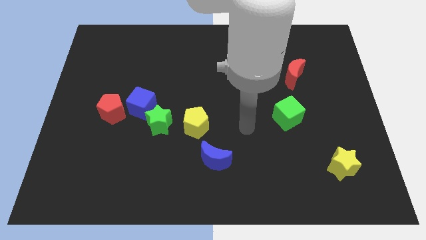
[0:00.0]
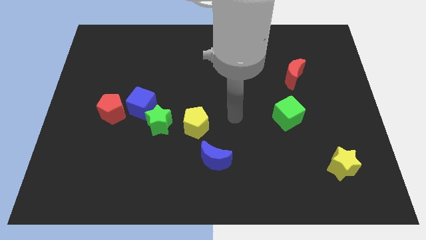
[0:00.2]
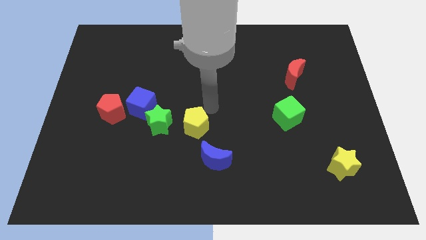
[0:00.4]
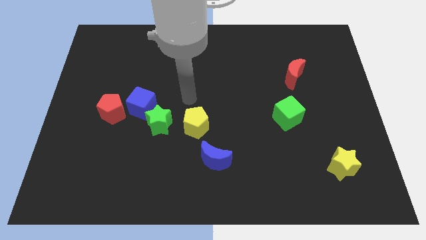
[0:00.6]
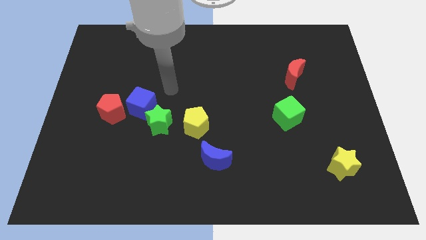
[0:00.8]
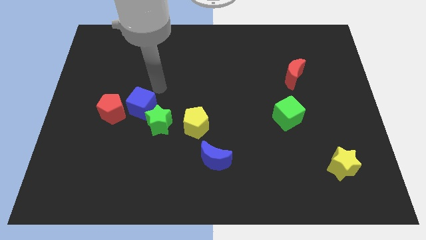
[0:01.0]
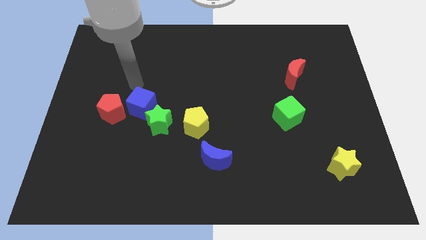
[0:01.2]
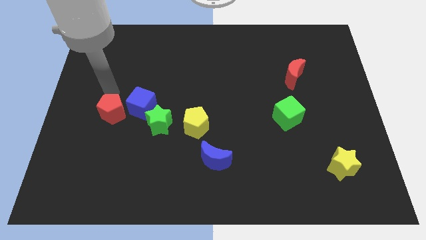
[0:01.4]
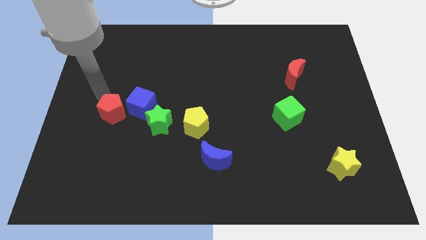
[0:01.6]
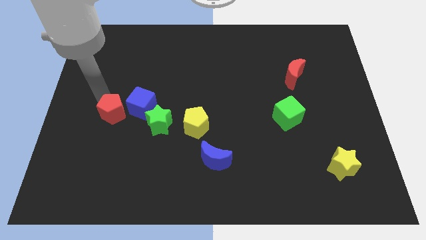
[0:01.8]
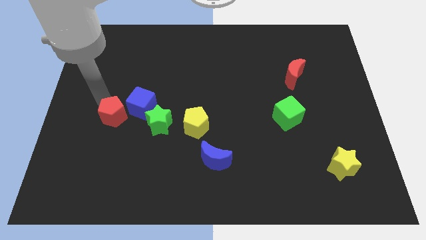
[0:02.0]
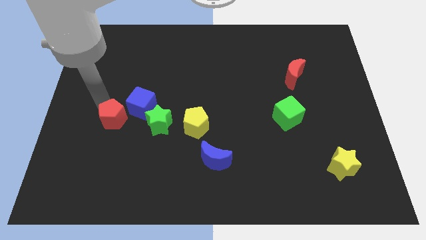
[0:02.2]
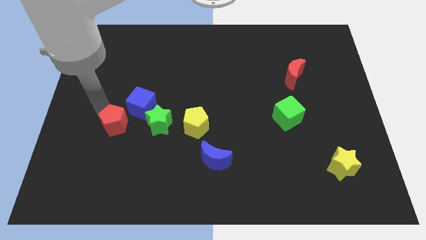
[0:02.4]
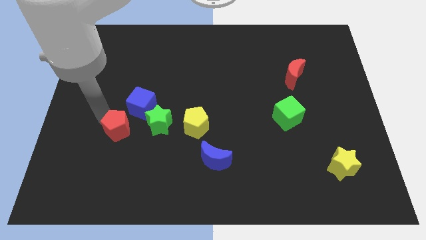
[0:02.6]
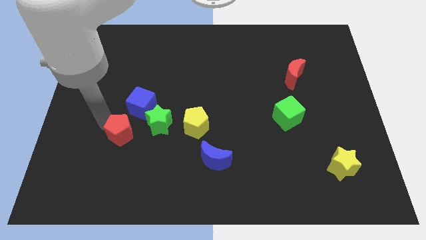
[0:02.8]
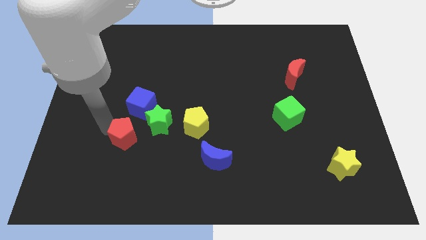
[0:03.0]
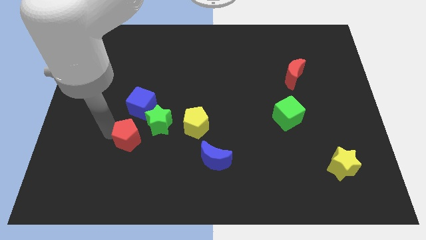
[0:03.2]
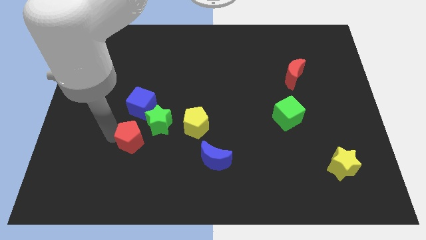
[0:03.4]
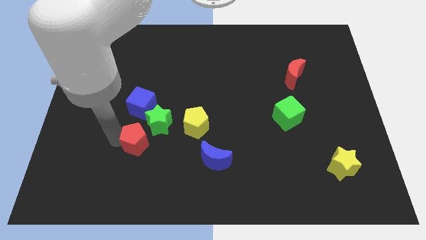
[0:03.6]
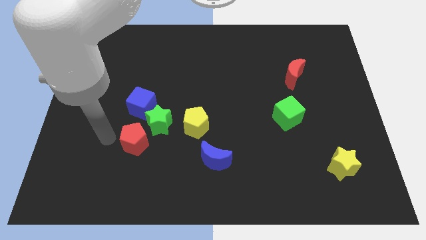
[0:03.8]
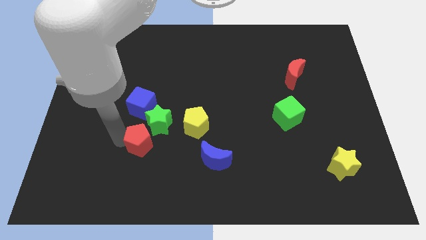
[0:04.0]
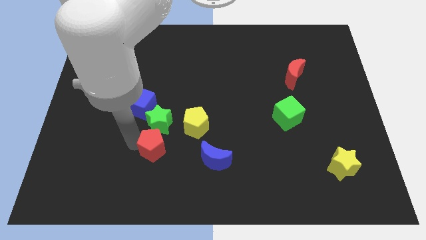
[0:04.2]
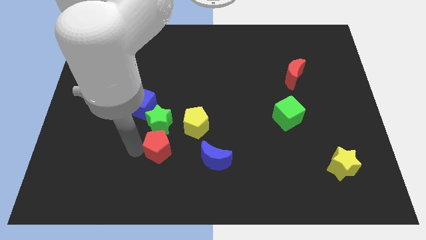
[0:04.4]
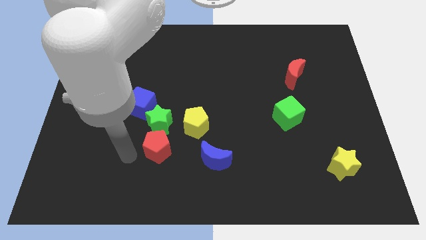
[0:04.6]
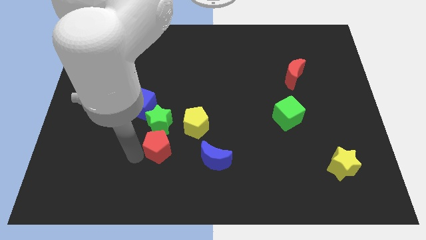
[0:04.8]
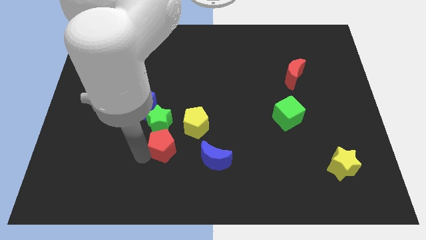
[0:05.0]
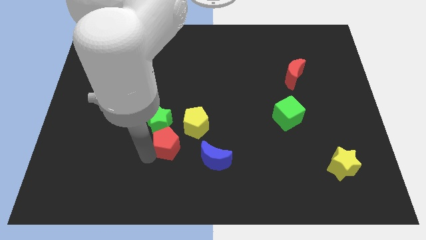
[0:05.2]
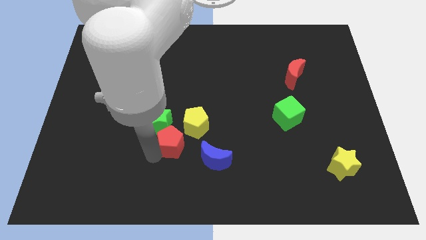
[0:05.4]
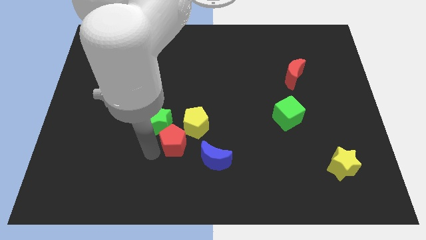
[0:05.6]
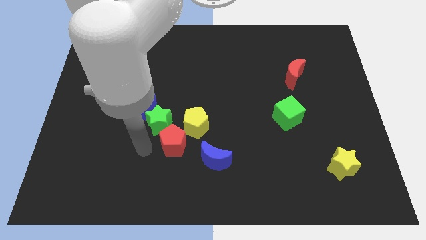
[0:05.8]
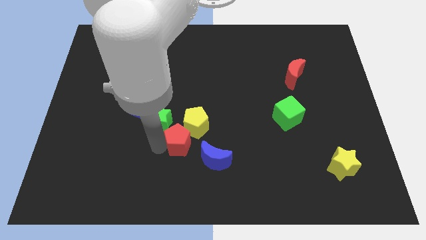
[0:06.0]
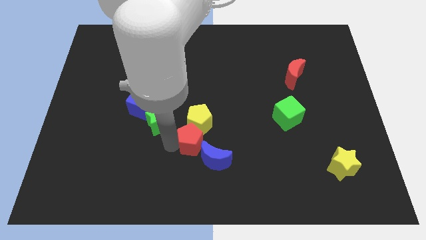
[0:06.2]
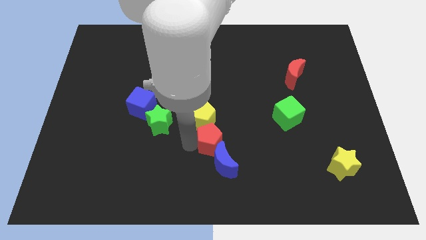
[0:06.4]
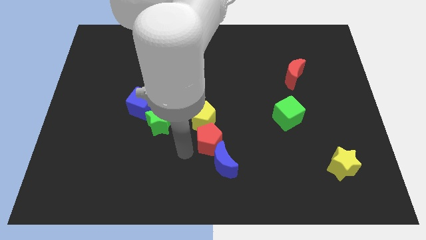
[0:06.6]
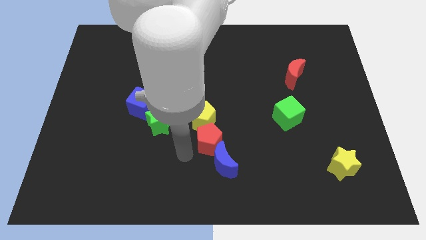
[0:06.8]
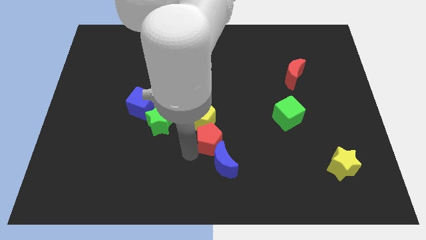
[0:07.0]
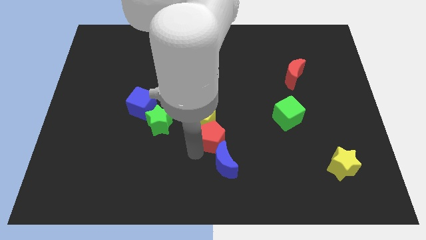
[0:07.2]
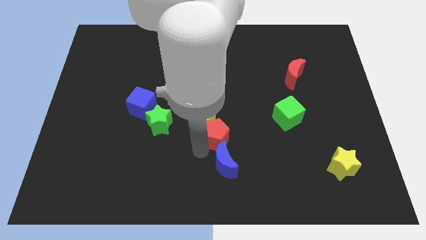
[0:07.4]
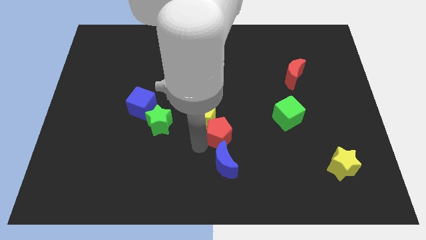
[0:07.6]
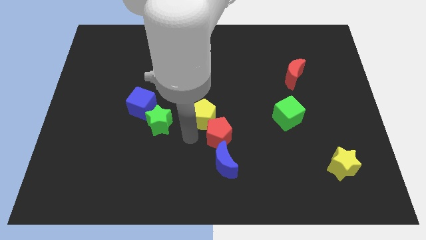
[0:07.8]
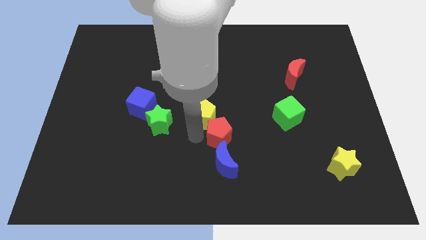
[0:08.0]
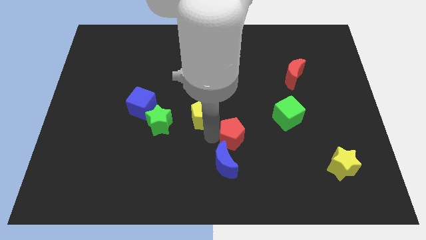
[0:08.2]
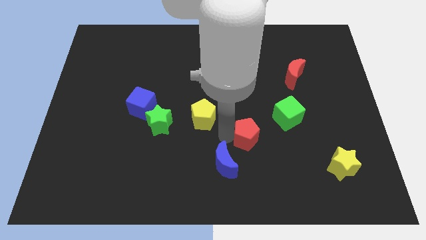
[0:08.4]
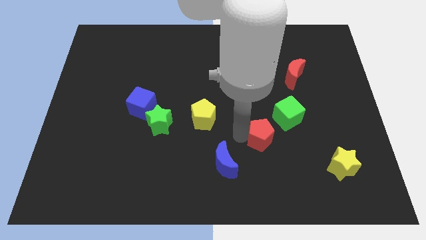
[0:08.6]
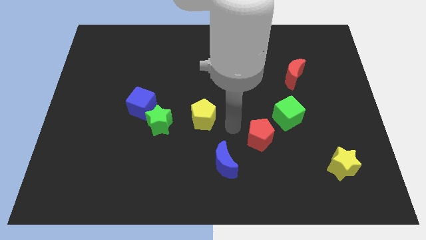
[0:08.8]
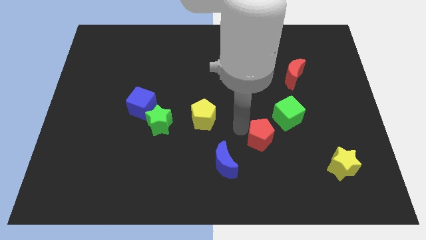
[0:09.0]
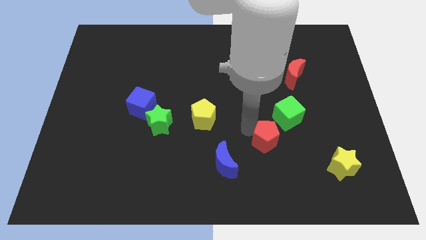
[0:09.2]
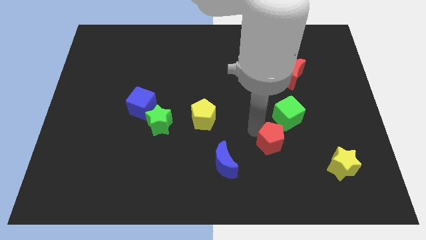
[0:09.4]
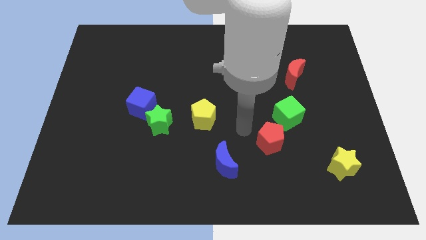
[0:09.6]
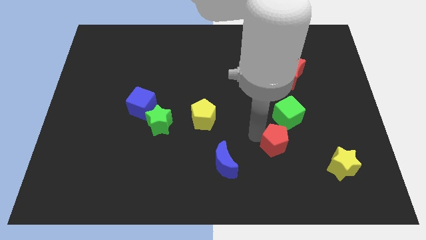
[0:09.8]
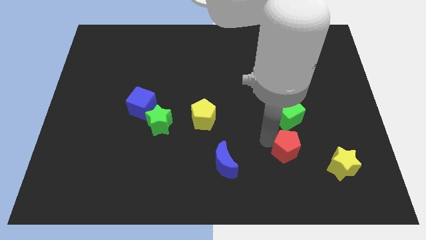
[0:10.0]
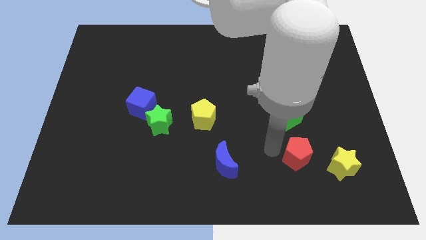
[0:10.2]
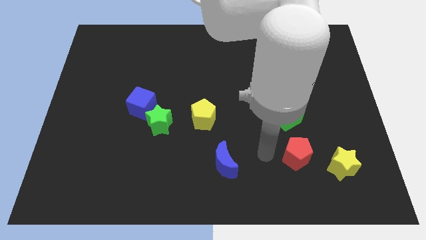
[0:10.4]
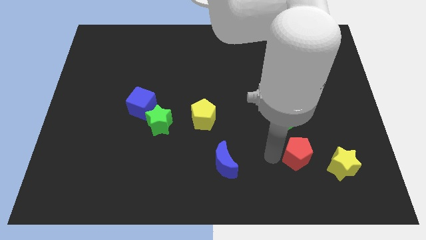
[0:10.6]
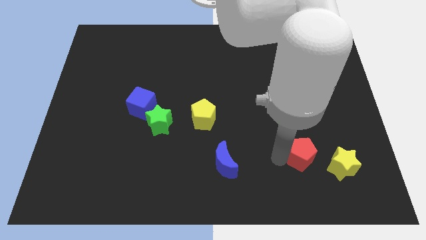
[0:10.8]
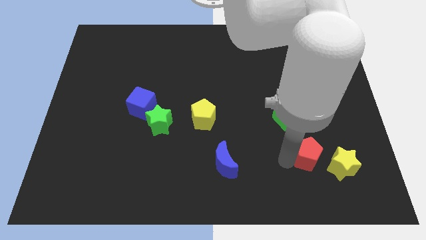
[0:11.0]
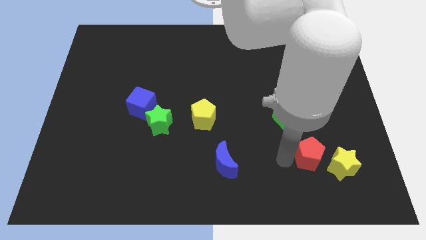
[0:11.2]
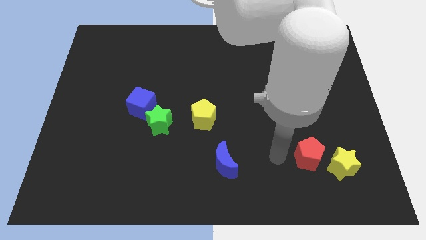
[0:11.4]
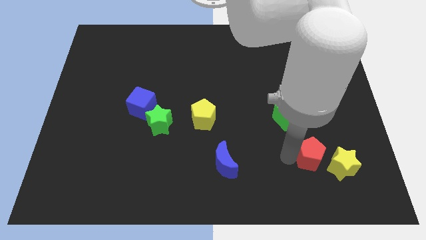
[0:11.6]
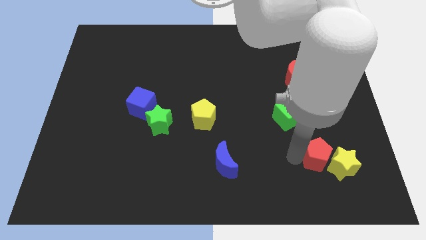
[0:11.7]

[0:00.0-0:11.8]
push the red pentagon to the yellow star

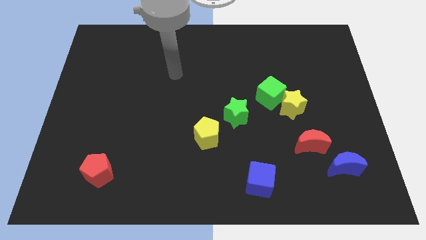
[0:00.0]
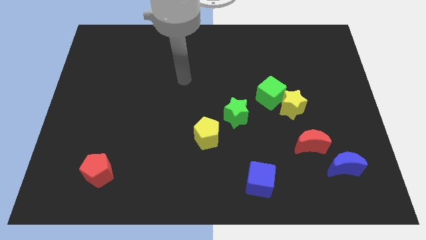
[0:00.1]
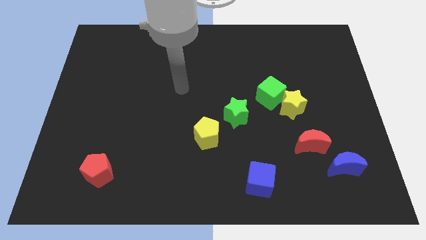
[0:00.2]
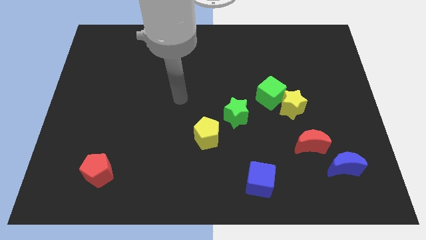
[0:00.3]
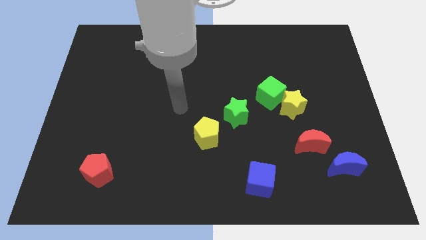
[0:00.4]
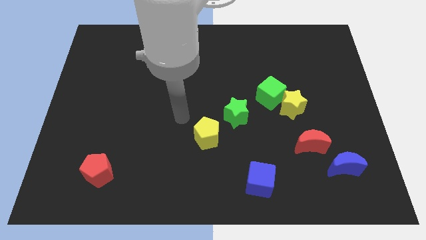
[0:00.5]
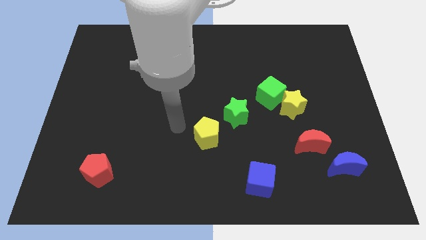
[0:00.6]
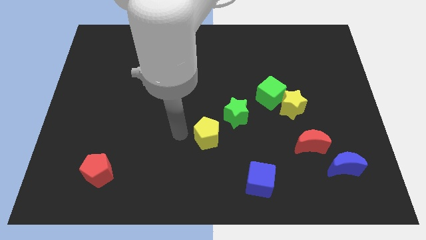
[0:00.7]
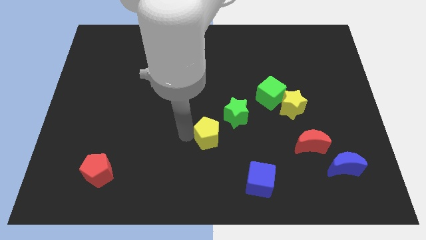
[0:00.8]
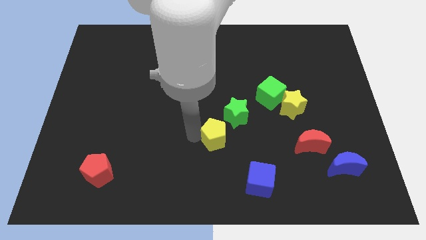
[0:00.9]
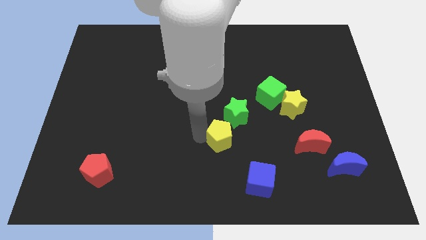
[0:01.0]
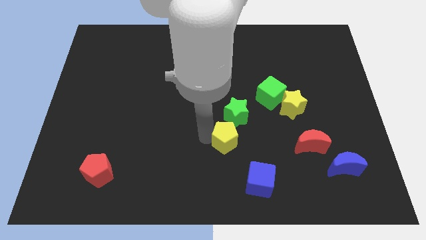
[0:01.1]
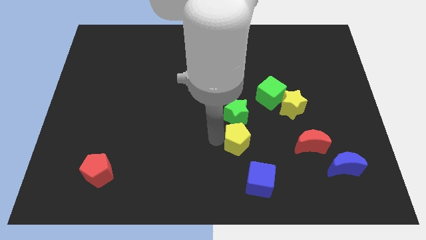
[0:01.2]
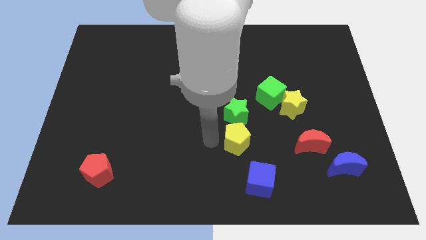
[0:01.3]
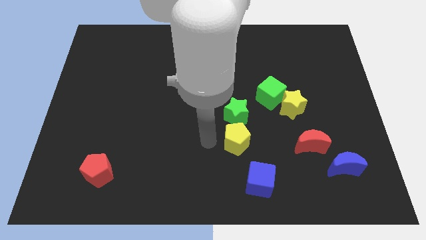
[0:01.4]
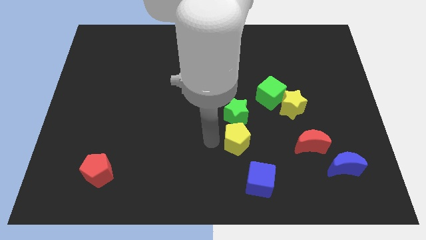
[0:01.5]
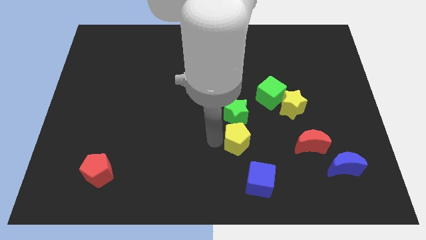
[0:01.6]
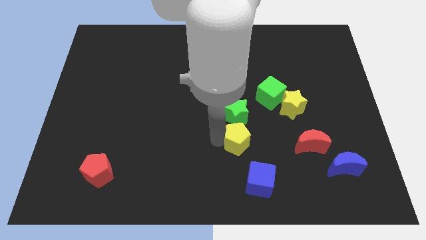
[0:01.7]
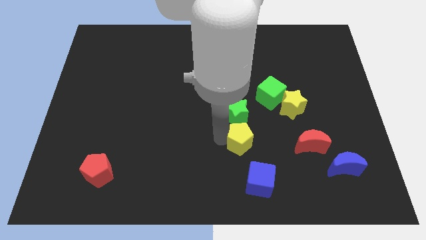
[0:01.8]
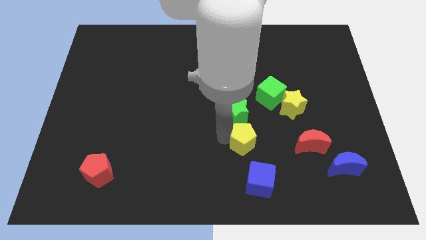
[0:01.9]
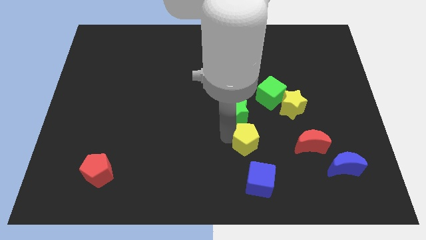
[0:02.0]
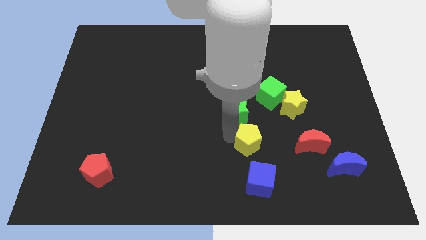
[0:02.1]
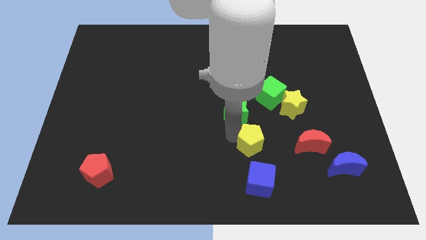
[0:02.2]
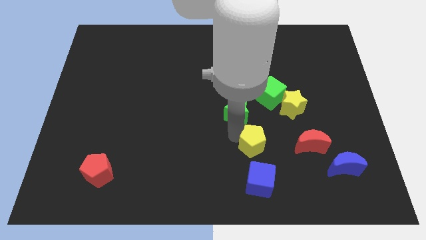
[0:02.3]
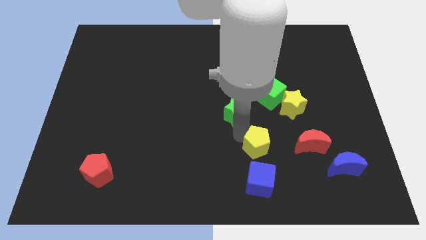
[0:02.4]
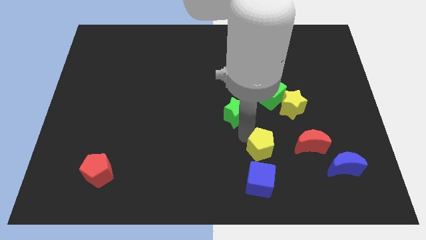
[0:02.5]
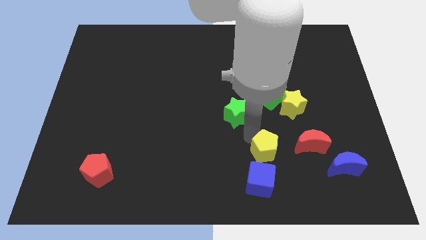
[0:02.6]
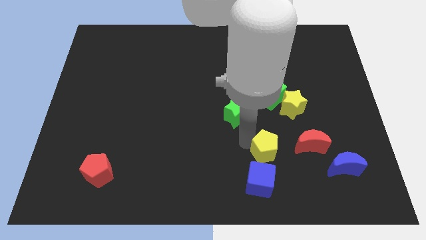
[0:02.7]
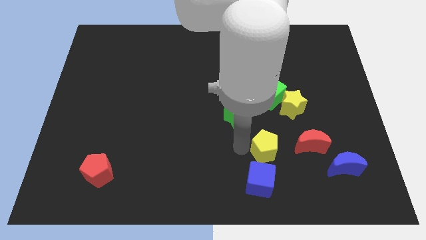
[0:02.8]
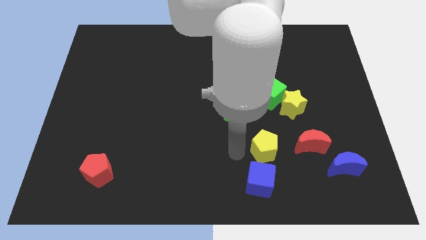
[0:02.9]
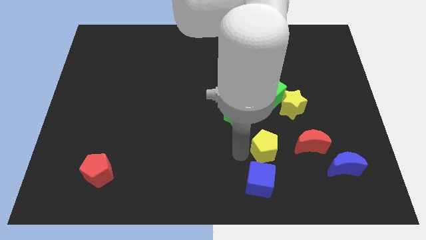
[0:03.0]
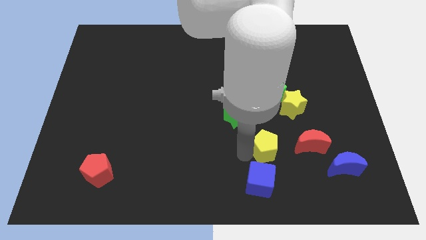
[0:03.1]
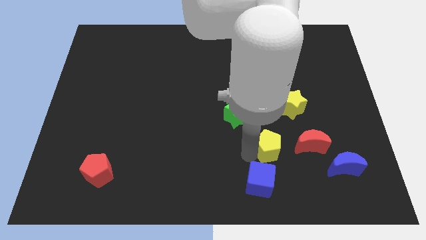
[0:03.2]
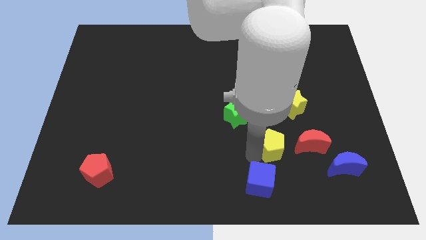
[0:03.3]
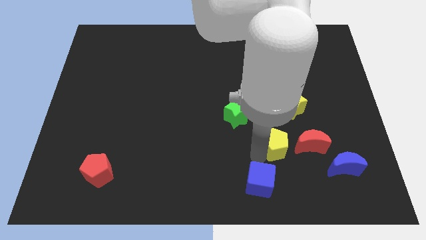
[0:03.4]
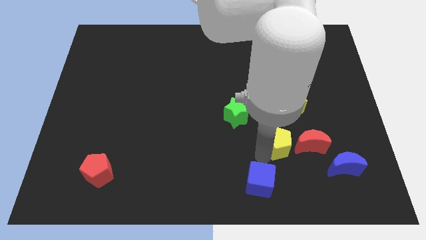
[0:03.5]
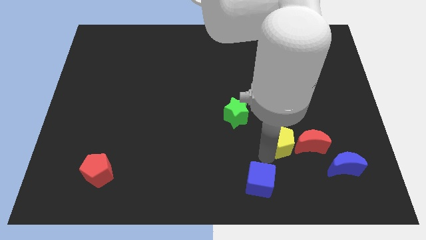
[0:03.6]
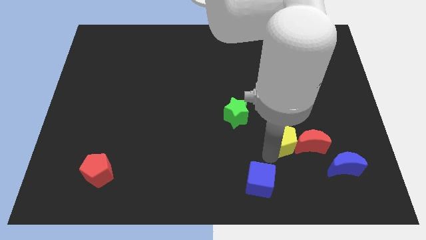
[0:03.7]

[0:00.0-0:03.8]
move the yellow pentagon to the red moon
